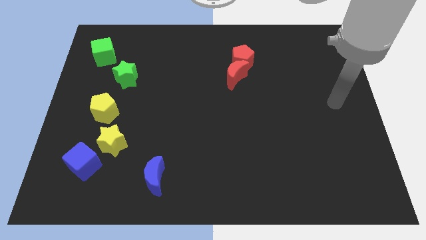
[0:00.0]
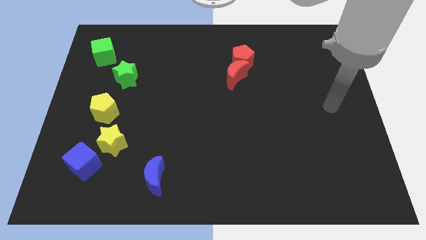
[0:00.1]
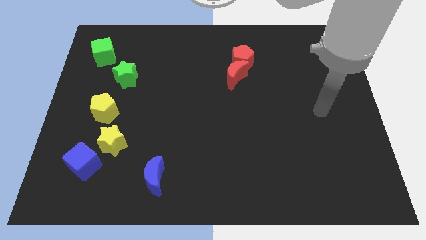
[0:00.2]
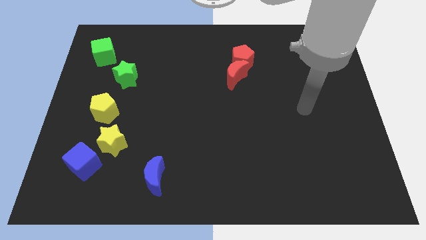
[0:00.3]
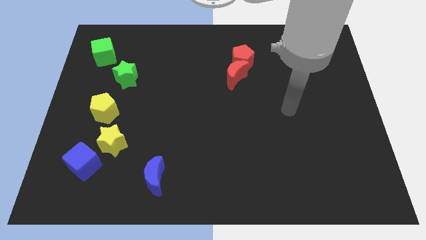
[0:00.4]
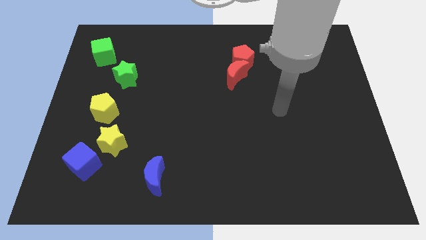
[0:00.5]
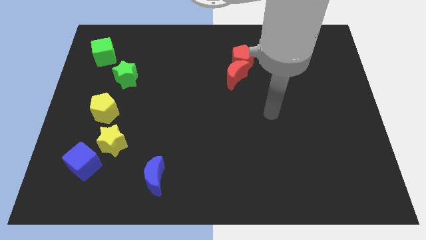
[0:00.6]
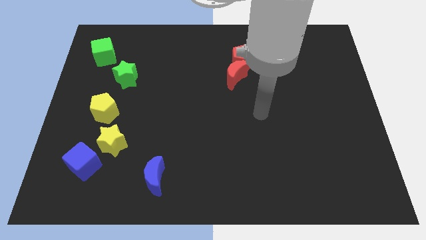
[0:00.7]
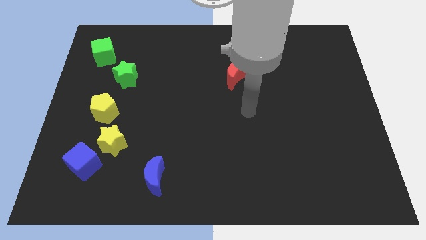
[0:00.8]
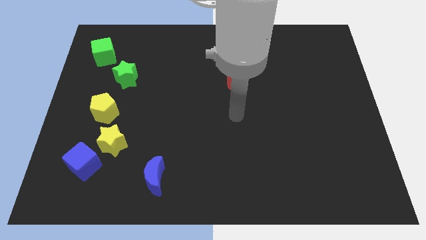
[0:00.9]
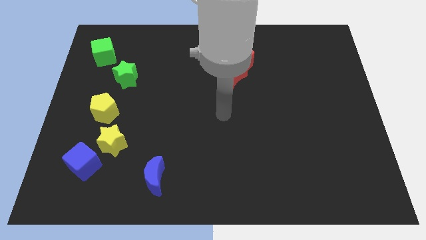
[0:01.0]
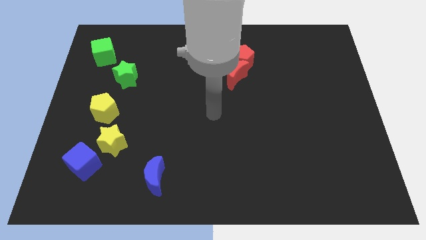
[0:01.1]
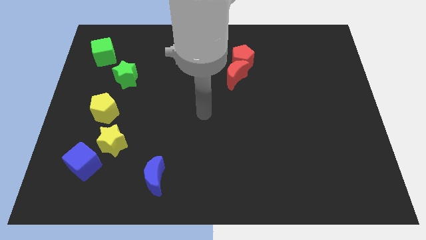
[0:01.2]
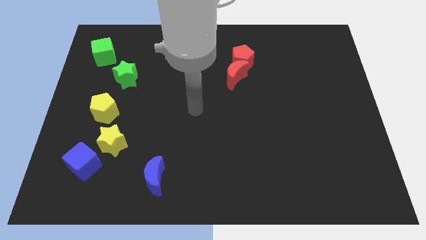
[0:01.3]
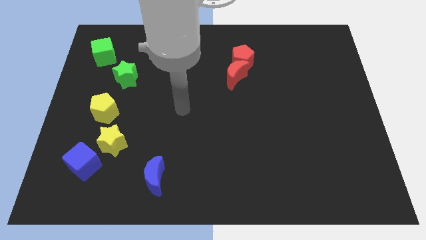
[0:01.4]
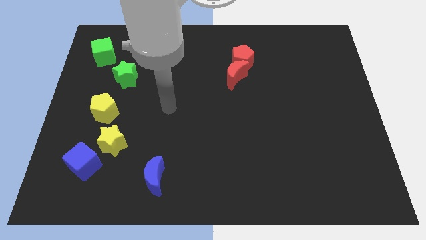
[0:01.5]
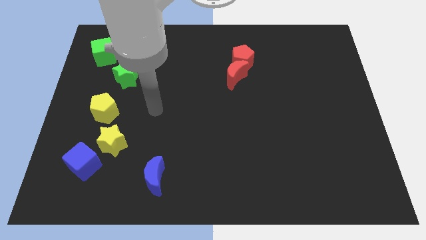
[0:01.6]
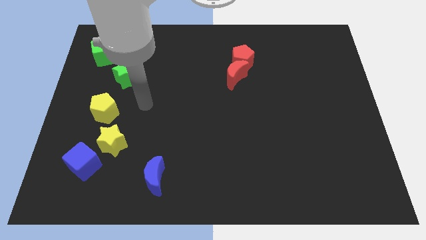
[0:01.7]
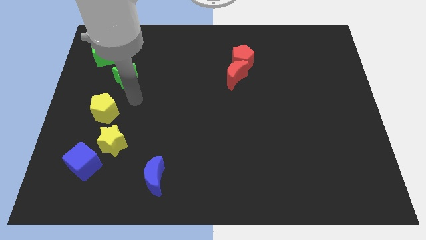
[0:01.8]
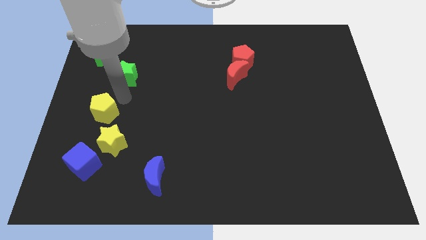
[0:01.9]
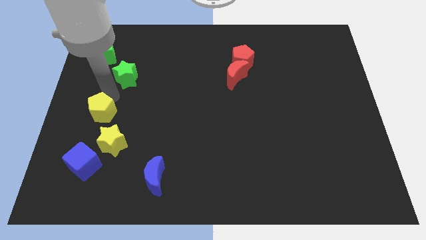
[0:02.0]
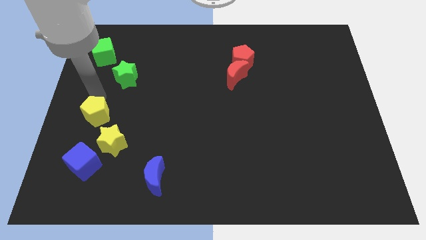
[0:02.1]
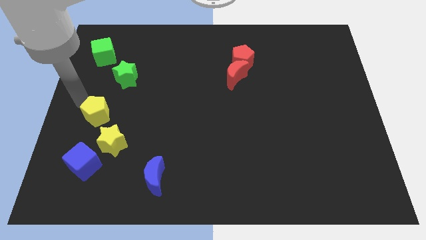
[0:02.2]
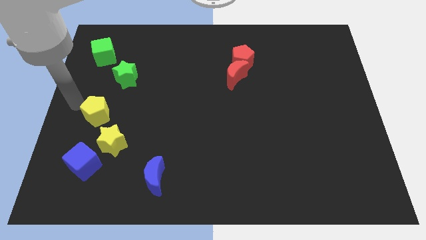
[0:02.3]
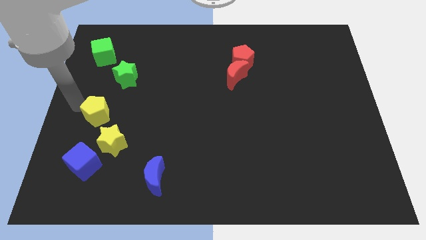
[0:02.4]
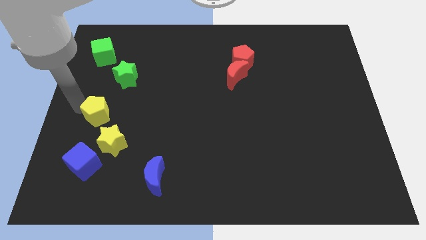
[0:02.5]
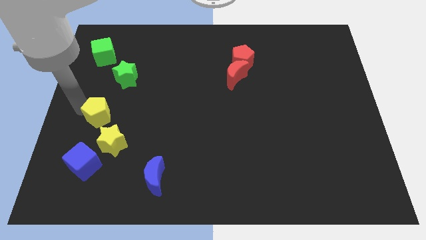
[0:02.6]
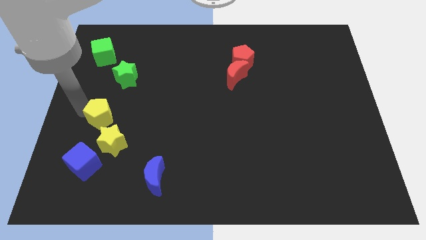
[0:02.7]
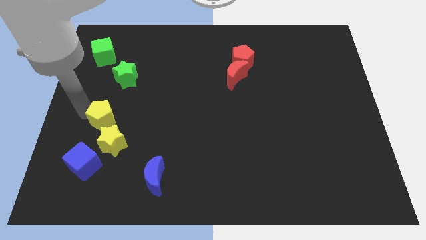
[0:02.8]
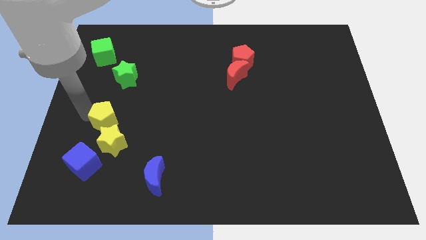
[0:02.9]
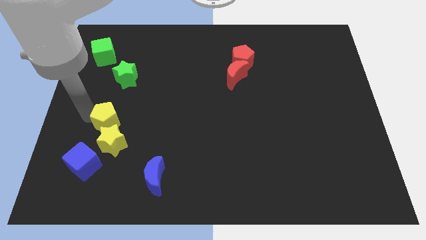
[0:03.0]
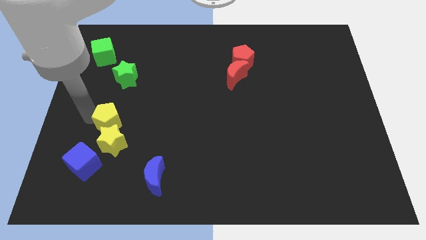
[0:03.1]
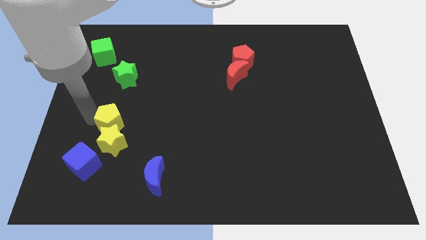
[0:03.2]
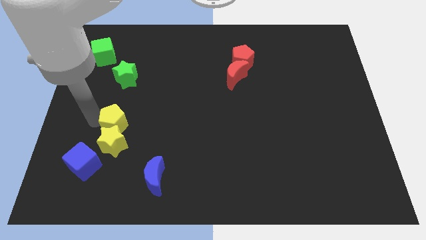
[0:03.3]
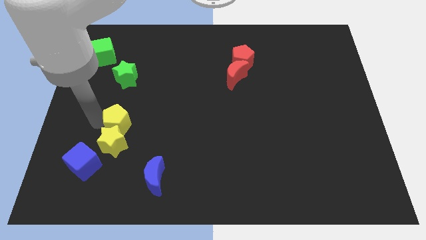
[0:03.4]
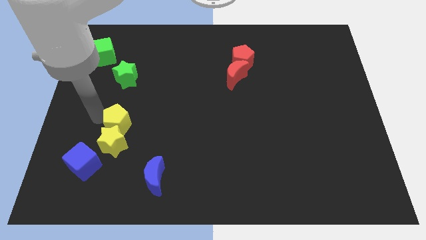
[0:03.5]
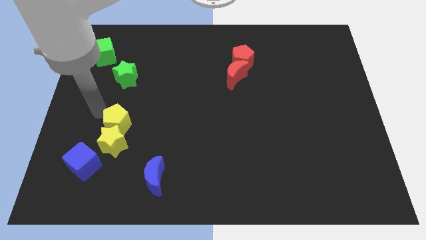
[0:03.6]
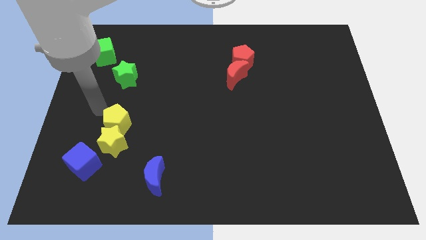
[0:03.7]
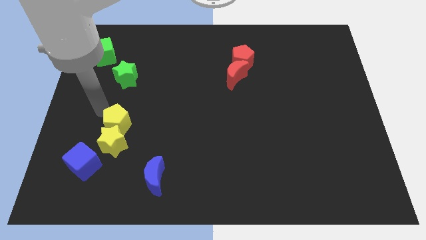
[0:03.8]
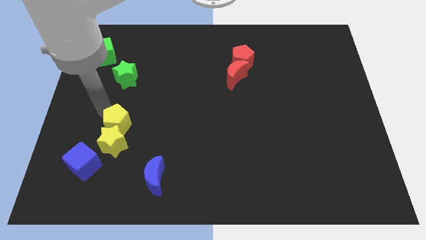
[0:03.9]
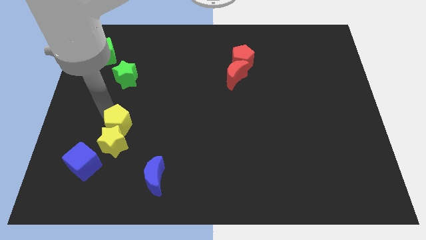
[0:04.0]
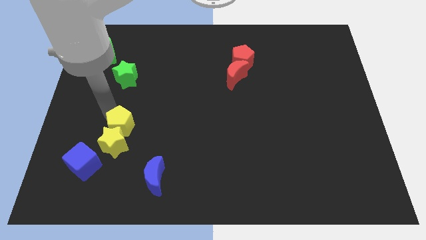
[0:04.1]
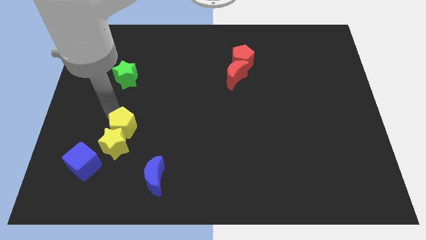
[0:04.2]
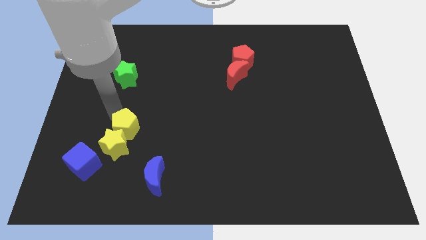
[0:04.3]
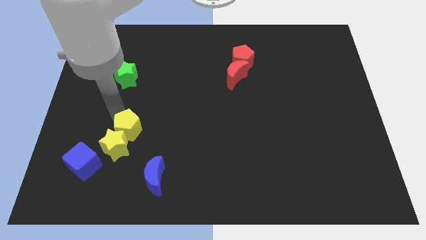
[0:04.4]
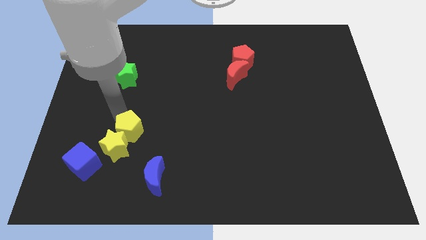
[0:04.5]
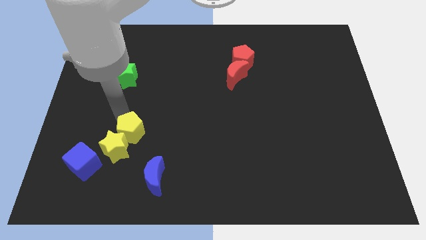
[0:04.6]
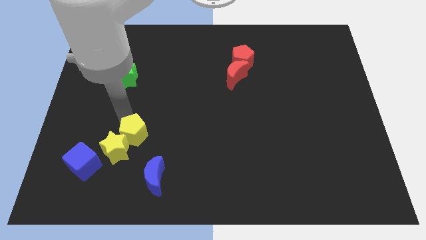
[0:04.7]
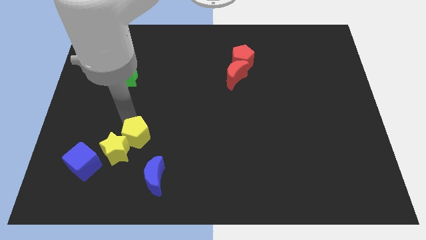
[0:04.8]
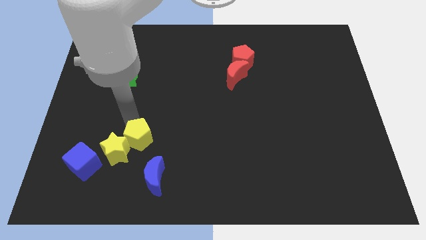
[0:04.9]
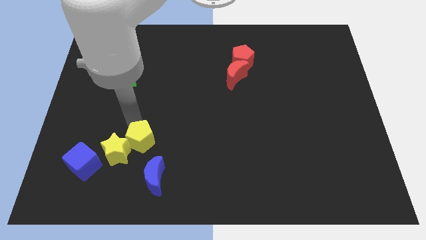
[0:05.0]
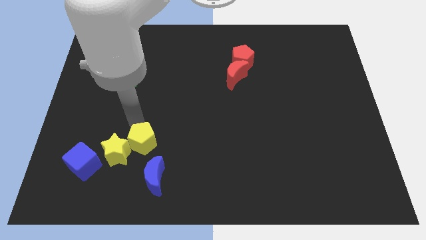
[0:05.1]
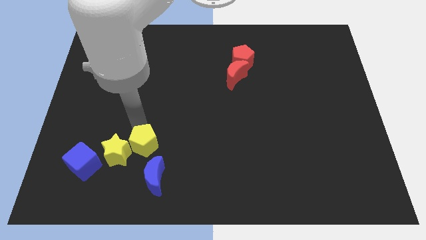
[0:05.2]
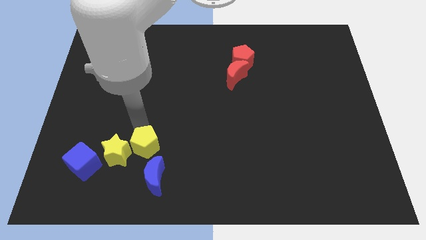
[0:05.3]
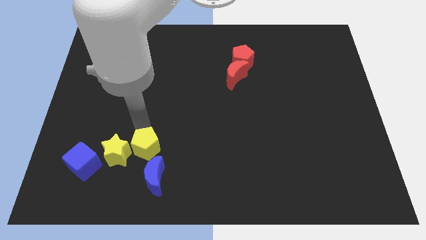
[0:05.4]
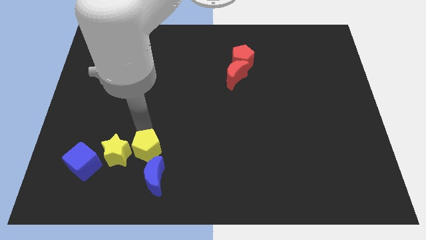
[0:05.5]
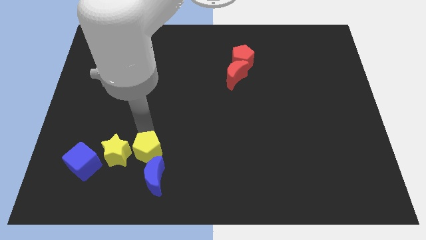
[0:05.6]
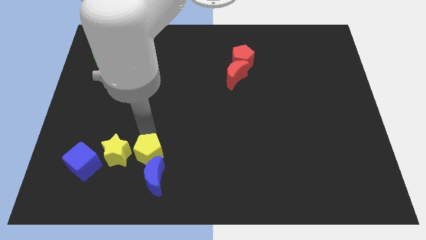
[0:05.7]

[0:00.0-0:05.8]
put the yellow pentagon to the blue moon

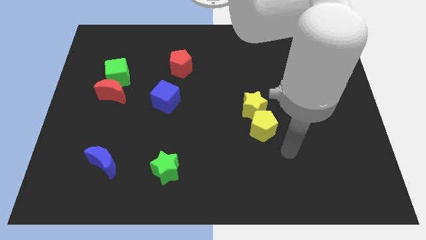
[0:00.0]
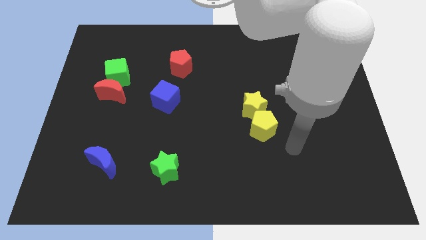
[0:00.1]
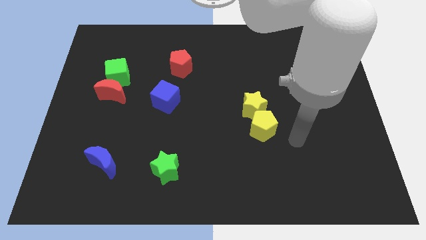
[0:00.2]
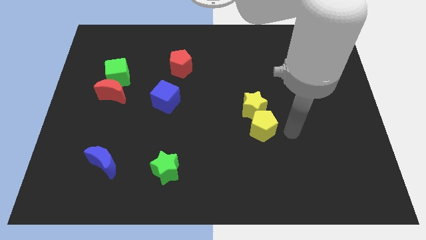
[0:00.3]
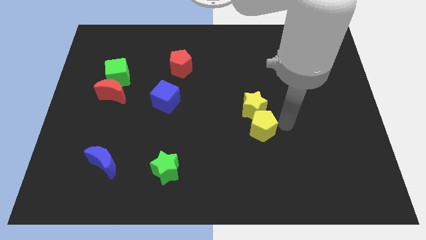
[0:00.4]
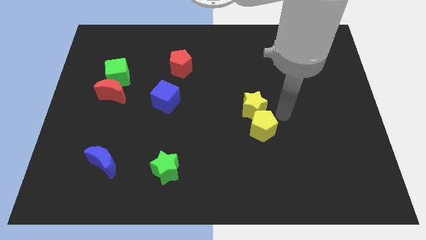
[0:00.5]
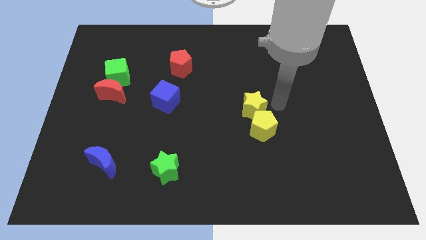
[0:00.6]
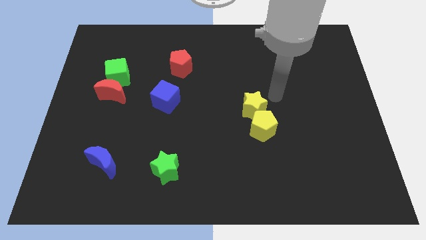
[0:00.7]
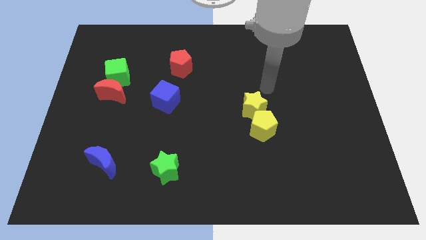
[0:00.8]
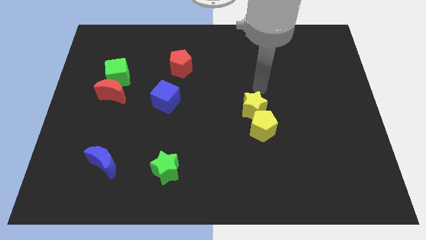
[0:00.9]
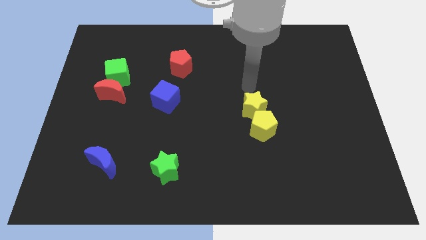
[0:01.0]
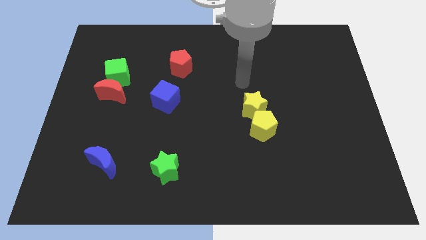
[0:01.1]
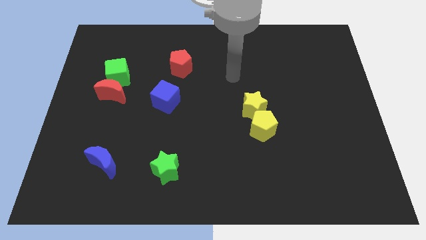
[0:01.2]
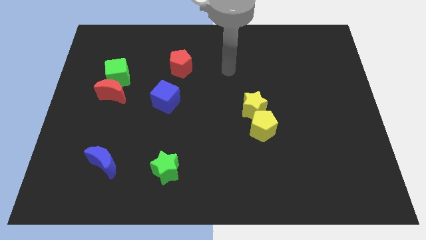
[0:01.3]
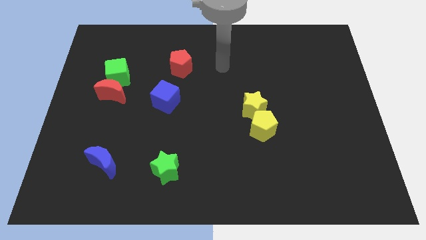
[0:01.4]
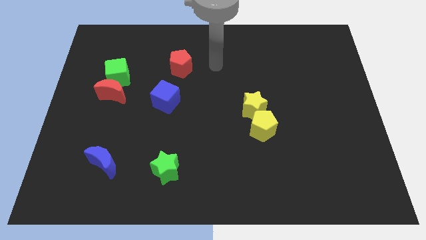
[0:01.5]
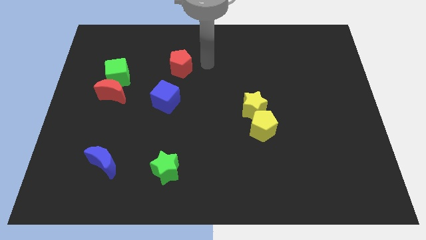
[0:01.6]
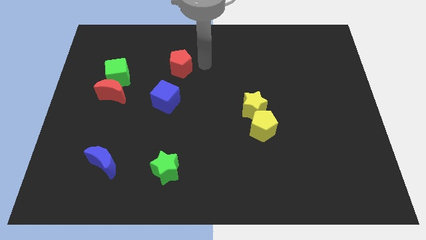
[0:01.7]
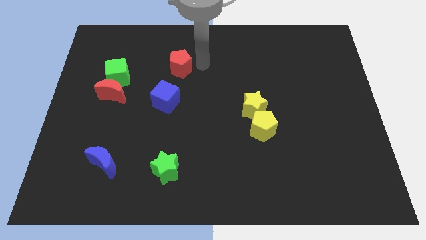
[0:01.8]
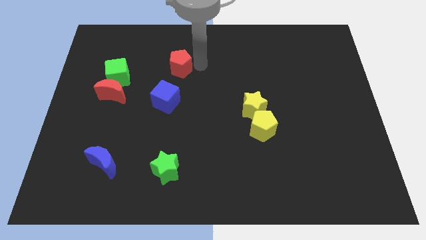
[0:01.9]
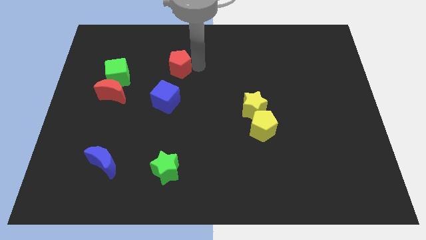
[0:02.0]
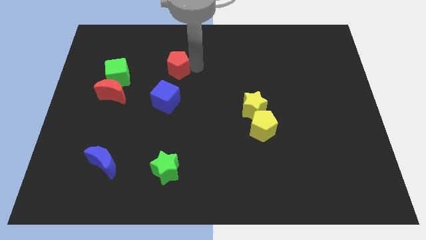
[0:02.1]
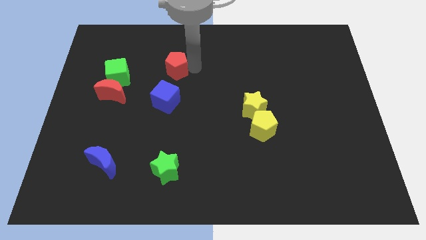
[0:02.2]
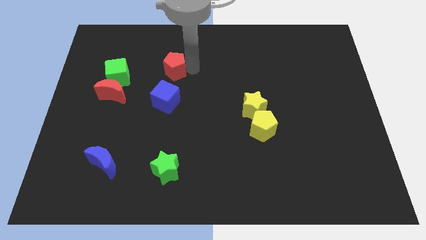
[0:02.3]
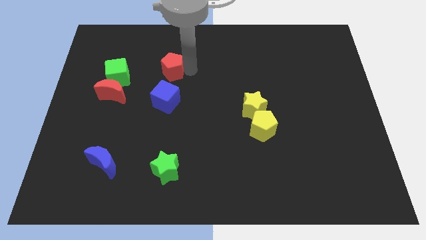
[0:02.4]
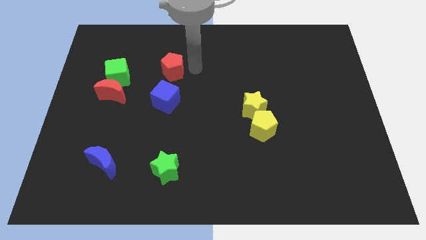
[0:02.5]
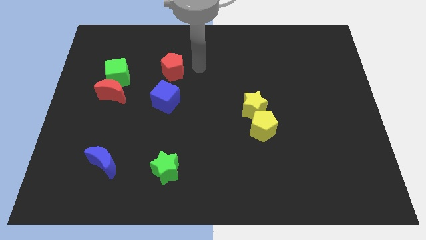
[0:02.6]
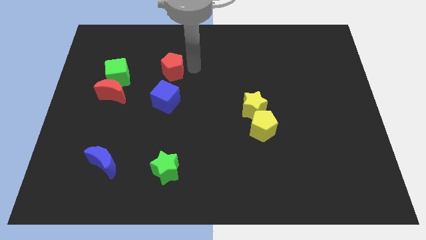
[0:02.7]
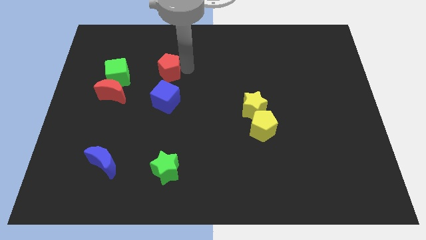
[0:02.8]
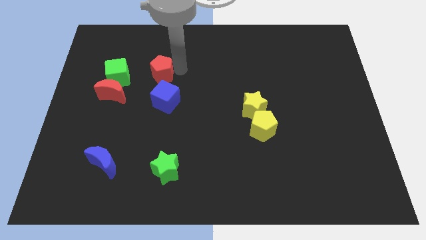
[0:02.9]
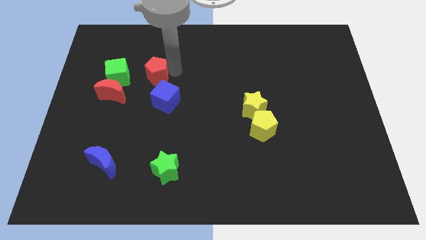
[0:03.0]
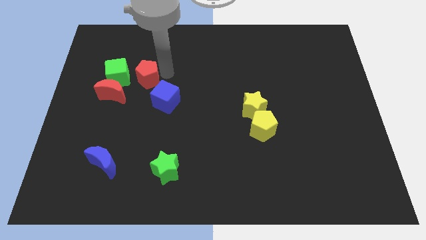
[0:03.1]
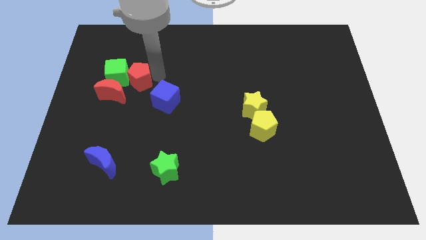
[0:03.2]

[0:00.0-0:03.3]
move the red pentagon close to the green cube
